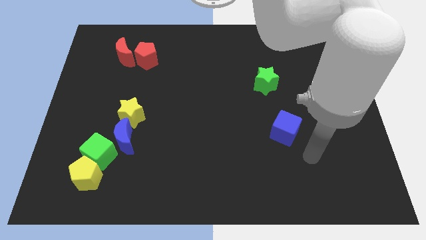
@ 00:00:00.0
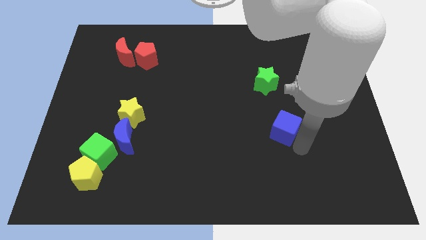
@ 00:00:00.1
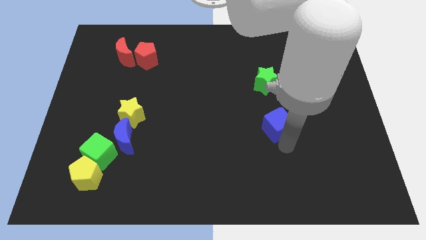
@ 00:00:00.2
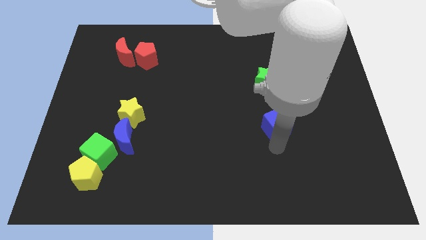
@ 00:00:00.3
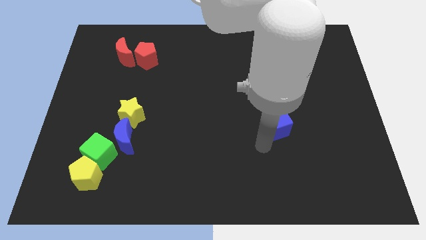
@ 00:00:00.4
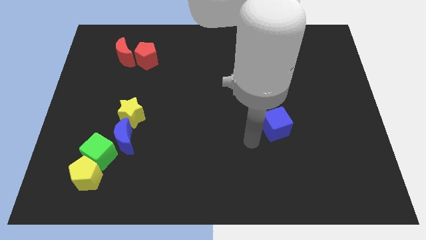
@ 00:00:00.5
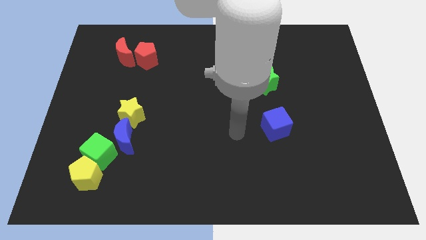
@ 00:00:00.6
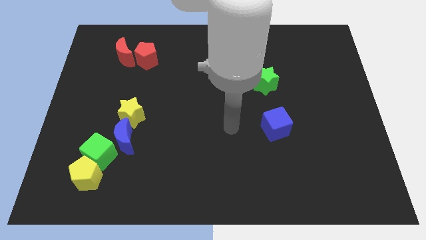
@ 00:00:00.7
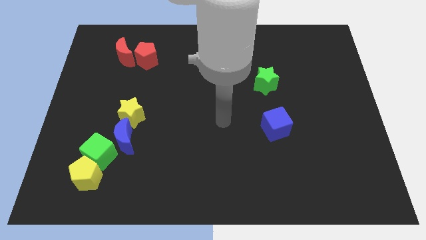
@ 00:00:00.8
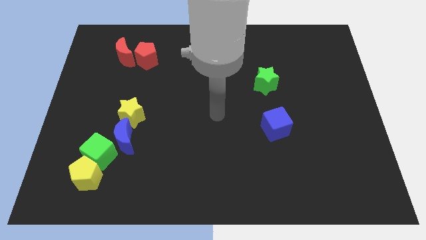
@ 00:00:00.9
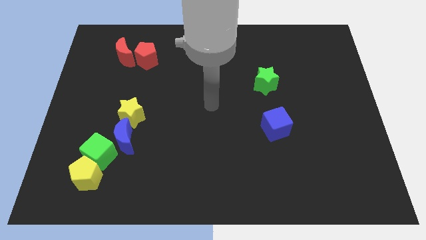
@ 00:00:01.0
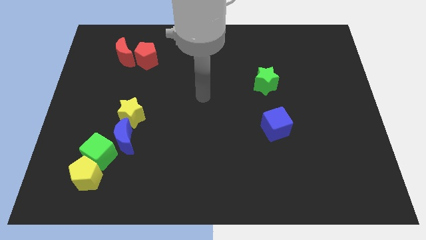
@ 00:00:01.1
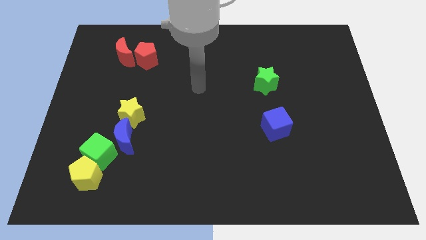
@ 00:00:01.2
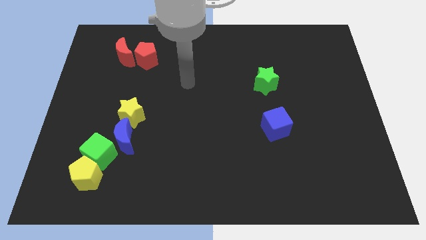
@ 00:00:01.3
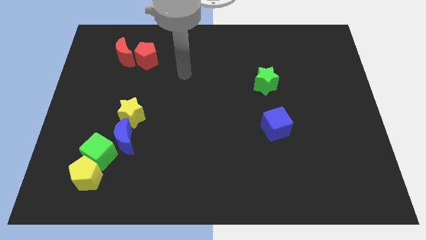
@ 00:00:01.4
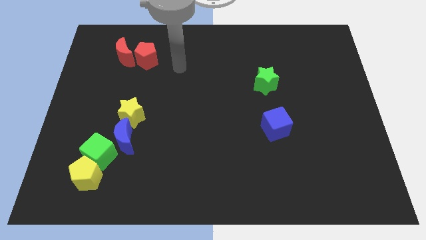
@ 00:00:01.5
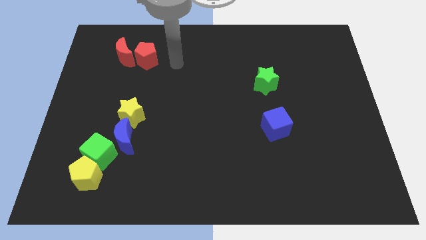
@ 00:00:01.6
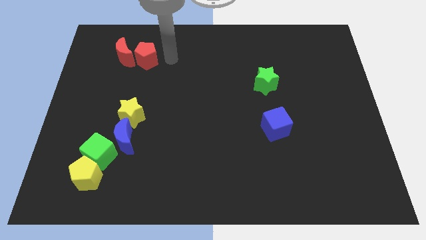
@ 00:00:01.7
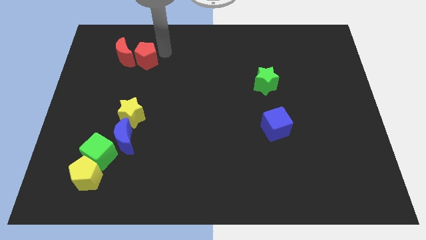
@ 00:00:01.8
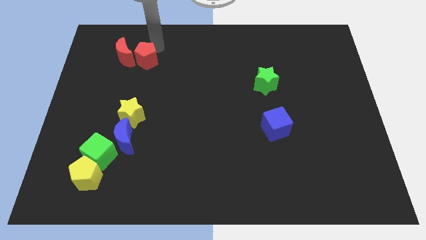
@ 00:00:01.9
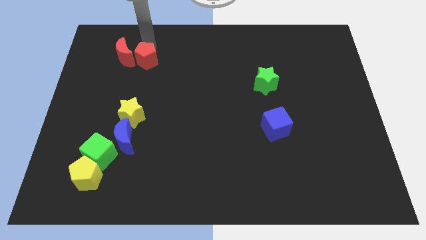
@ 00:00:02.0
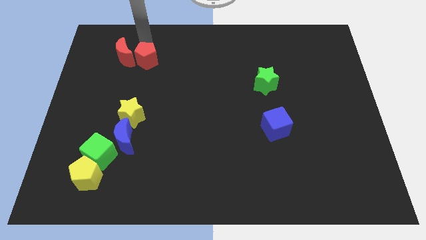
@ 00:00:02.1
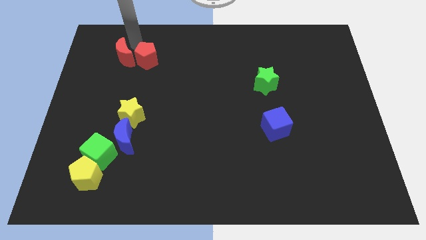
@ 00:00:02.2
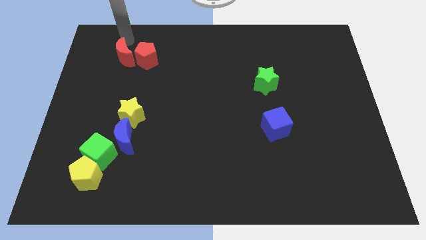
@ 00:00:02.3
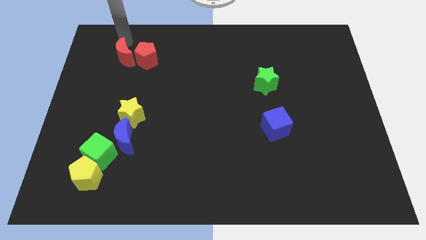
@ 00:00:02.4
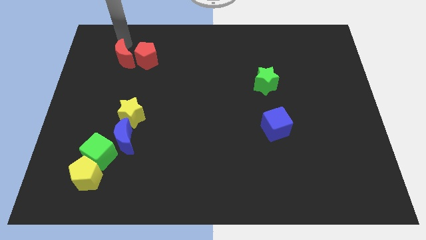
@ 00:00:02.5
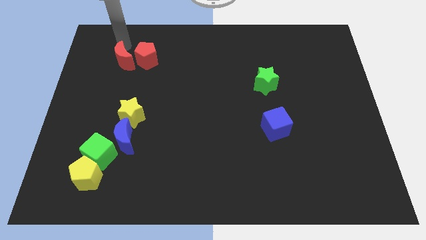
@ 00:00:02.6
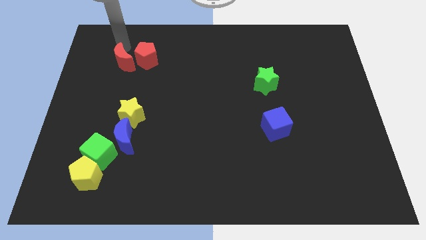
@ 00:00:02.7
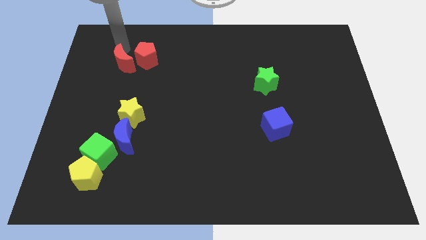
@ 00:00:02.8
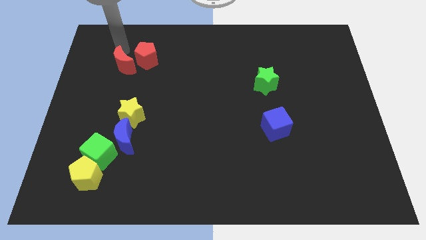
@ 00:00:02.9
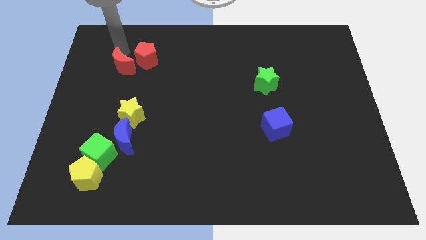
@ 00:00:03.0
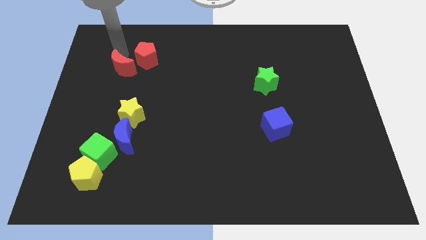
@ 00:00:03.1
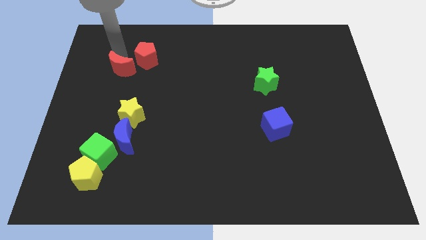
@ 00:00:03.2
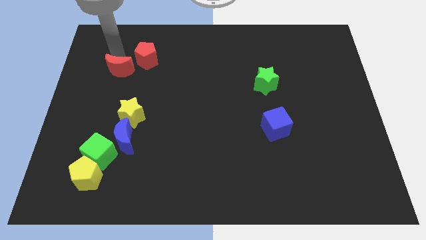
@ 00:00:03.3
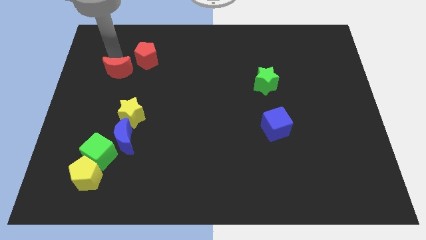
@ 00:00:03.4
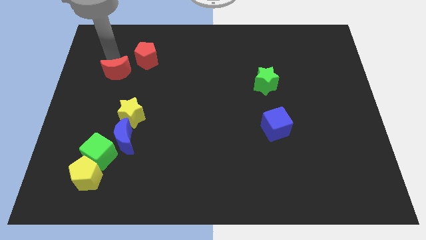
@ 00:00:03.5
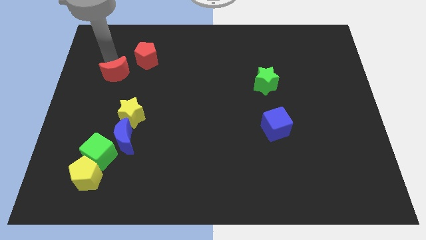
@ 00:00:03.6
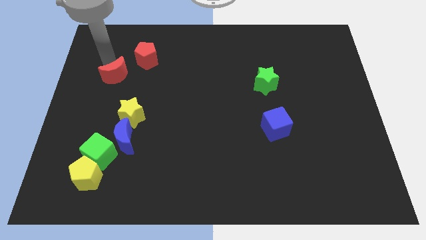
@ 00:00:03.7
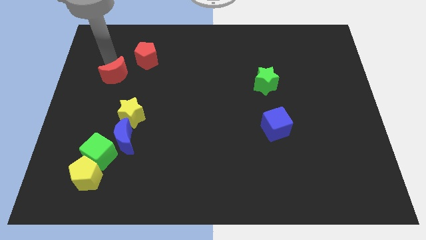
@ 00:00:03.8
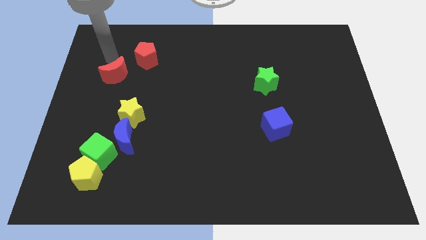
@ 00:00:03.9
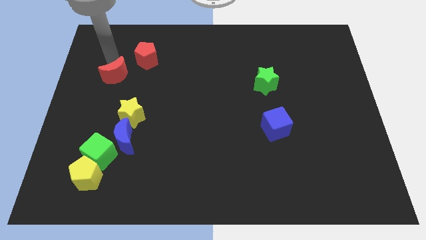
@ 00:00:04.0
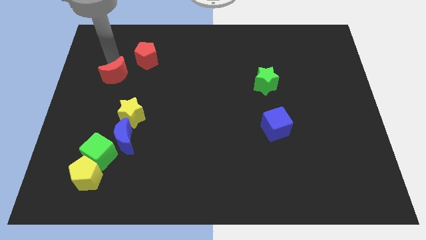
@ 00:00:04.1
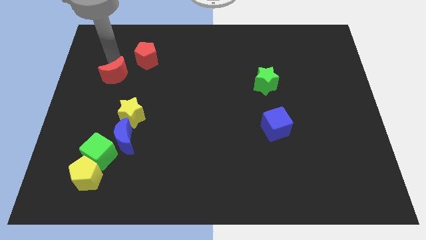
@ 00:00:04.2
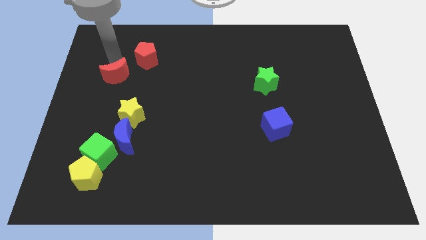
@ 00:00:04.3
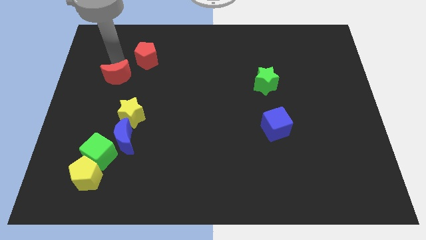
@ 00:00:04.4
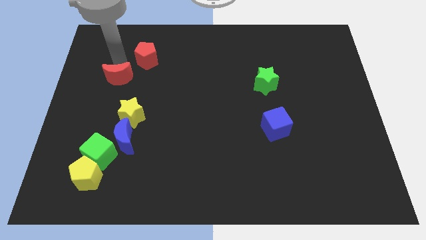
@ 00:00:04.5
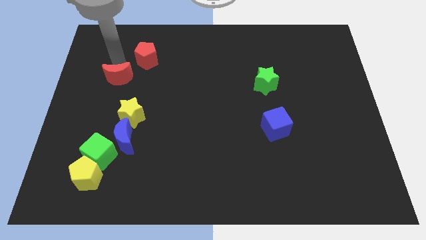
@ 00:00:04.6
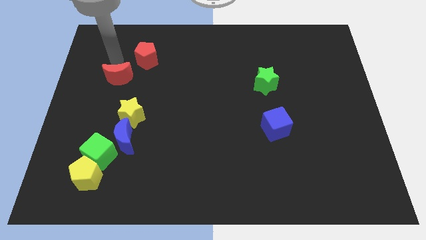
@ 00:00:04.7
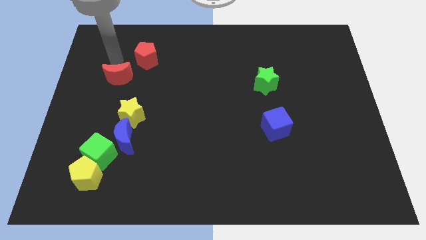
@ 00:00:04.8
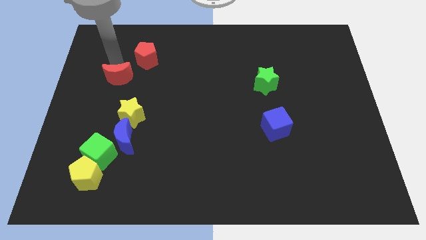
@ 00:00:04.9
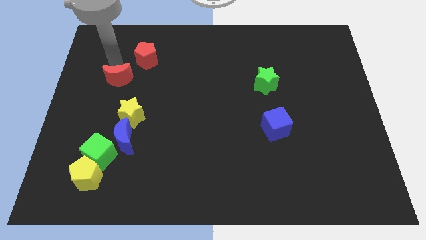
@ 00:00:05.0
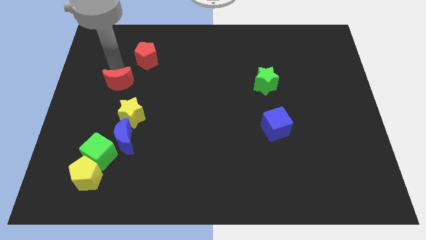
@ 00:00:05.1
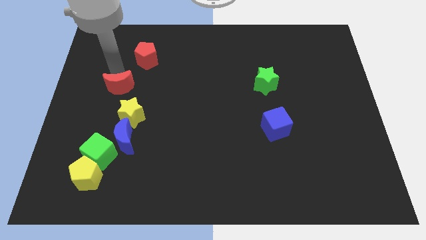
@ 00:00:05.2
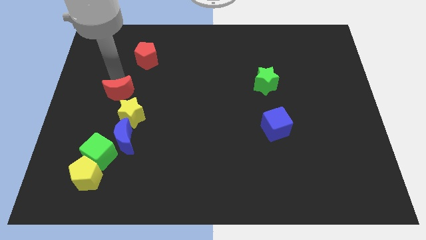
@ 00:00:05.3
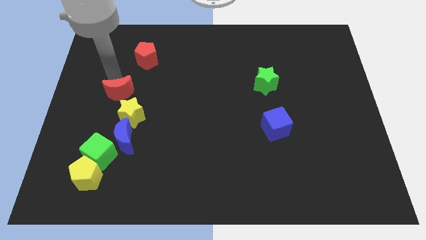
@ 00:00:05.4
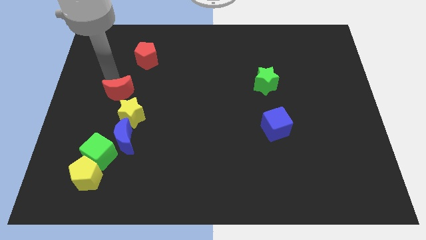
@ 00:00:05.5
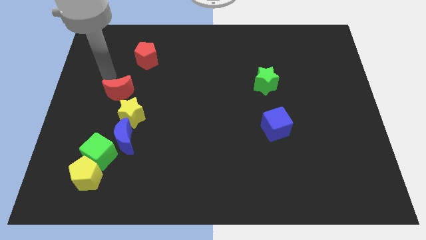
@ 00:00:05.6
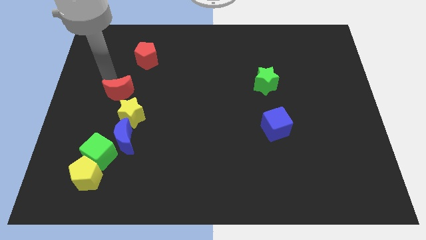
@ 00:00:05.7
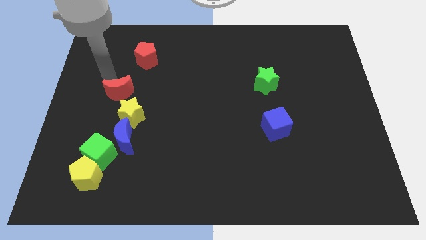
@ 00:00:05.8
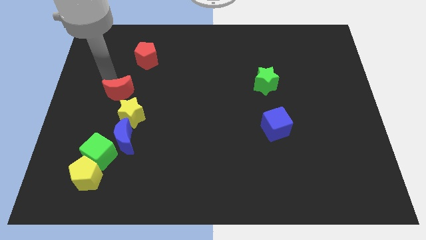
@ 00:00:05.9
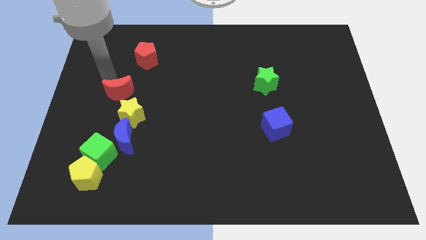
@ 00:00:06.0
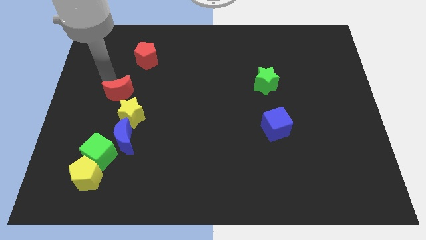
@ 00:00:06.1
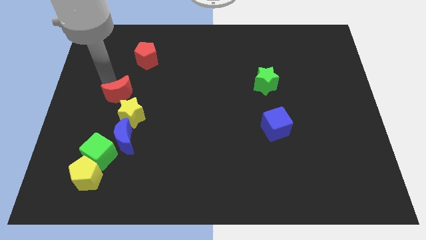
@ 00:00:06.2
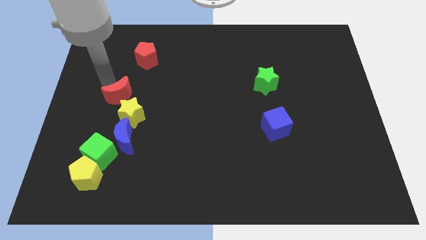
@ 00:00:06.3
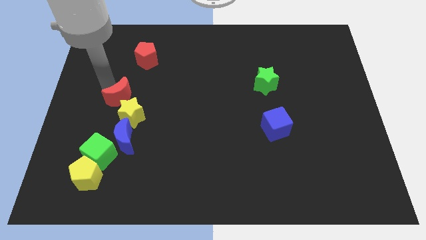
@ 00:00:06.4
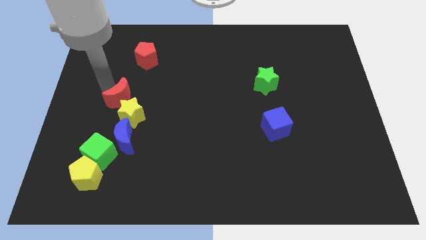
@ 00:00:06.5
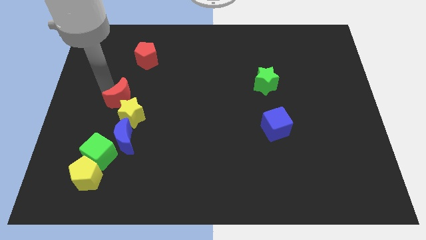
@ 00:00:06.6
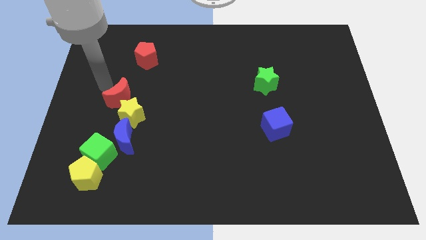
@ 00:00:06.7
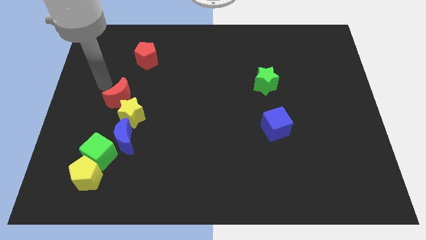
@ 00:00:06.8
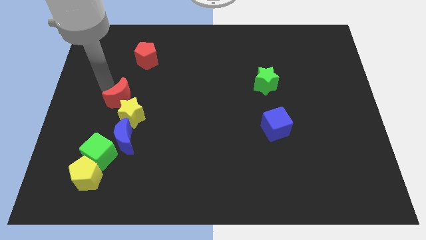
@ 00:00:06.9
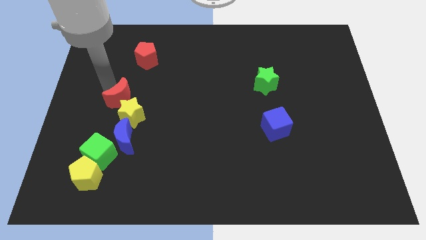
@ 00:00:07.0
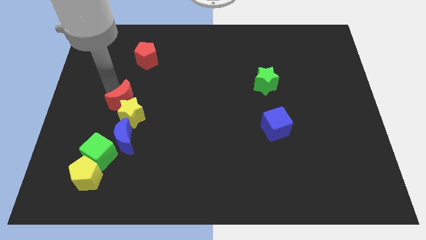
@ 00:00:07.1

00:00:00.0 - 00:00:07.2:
push the red moon next to the yellow star
